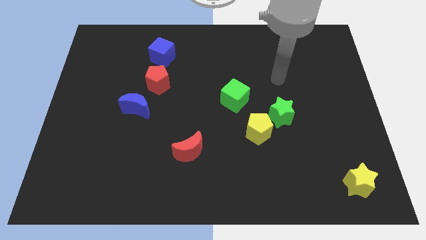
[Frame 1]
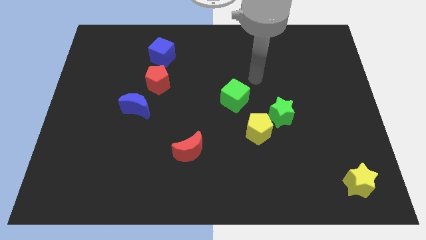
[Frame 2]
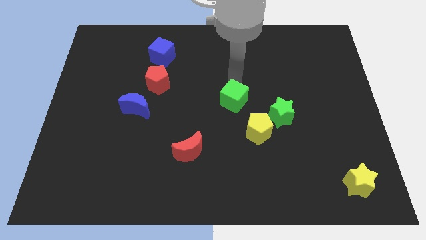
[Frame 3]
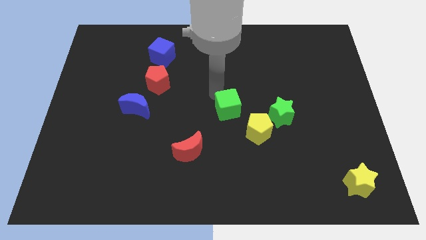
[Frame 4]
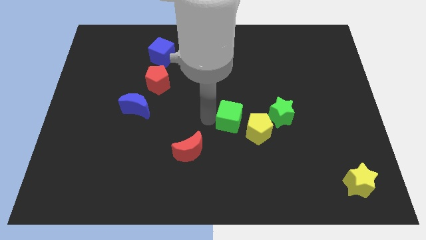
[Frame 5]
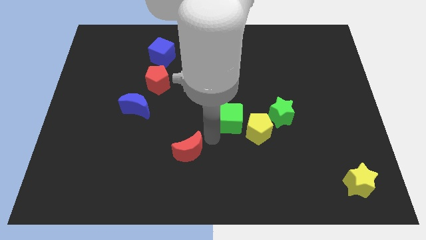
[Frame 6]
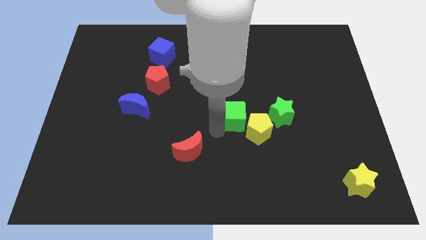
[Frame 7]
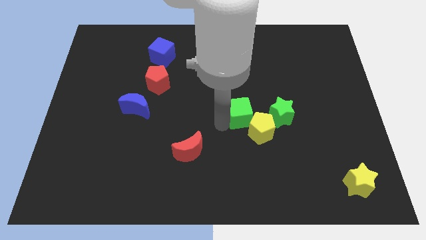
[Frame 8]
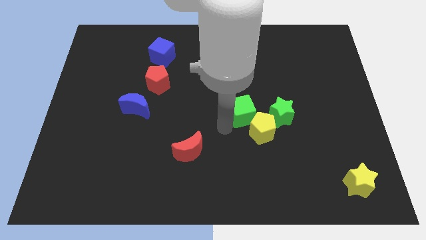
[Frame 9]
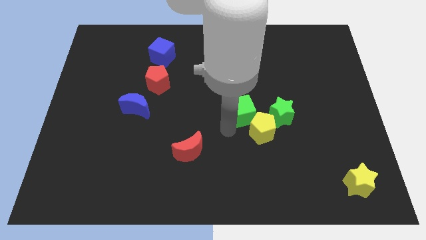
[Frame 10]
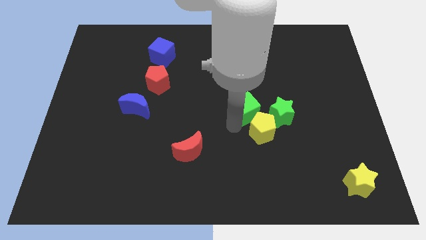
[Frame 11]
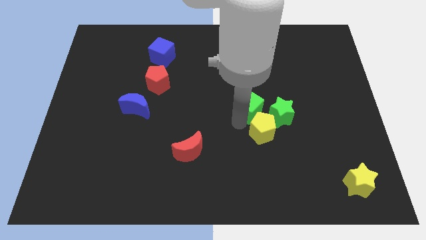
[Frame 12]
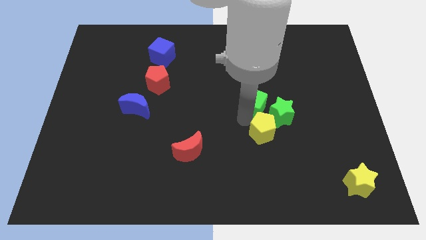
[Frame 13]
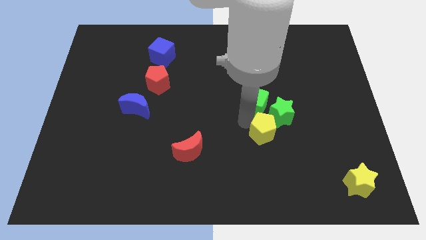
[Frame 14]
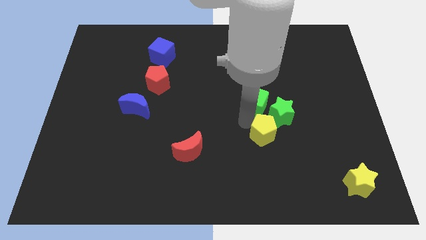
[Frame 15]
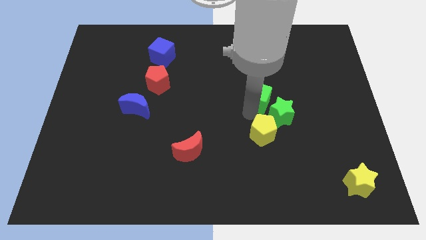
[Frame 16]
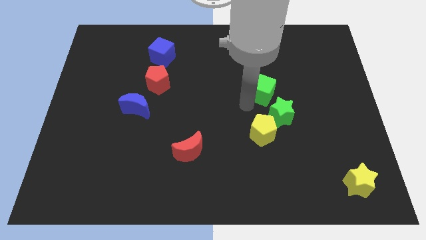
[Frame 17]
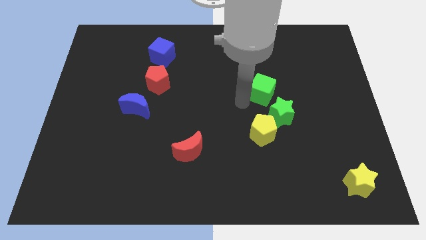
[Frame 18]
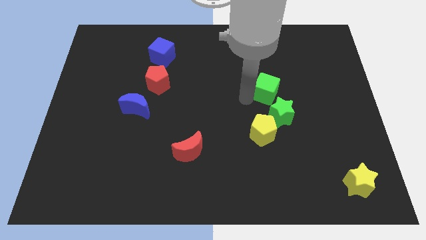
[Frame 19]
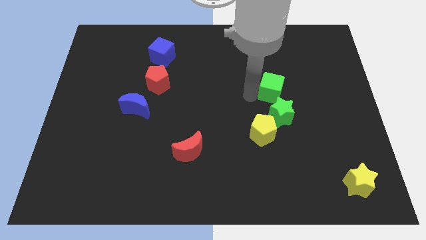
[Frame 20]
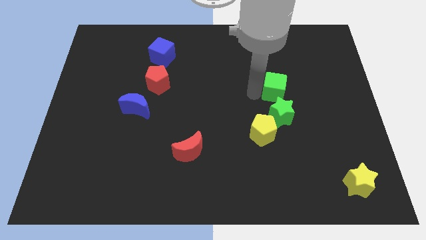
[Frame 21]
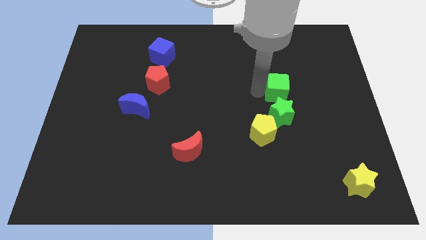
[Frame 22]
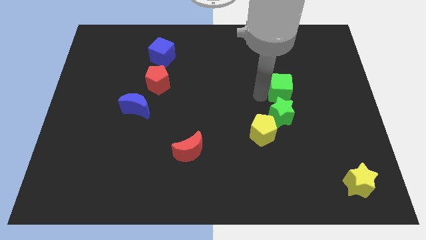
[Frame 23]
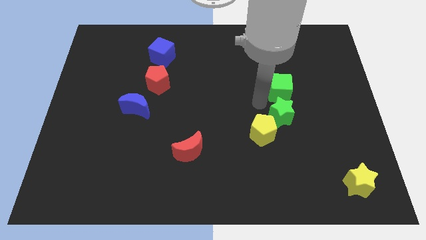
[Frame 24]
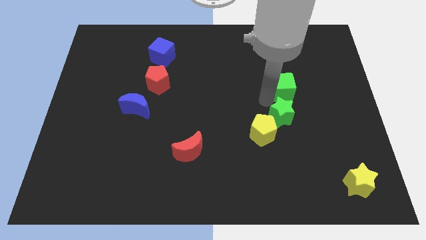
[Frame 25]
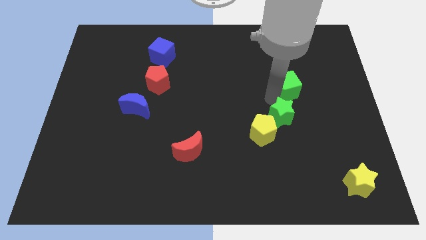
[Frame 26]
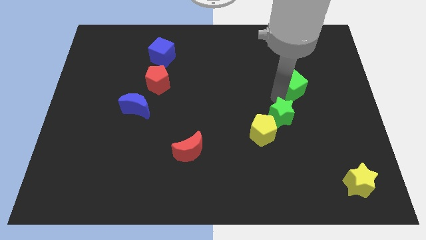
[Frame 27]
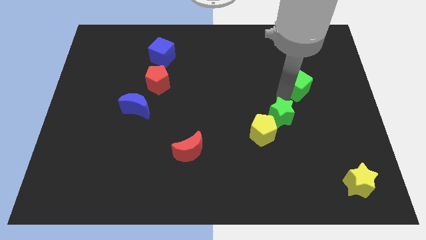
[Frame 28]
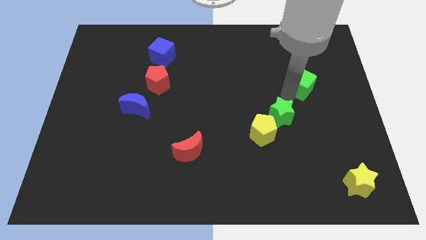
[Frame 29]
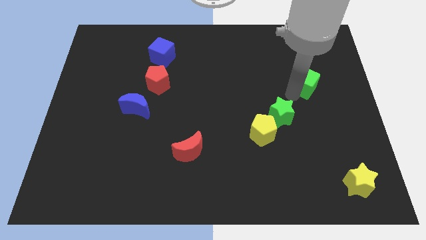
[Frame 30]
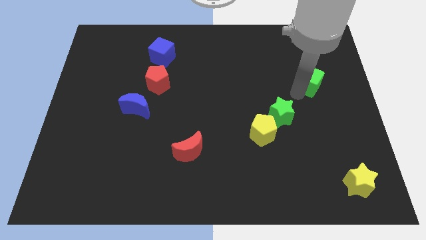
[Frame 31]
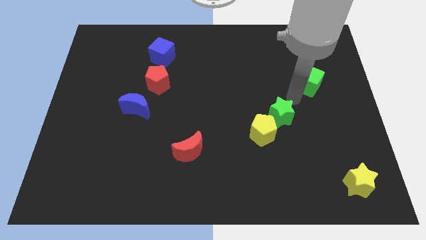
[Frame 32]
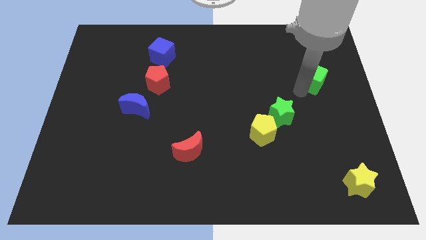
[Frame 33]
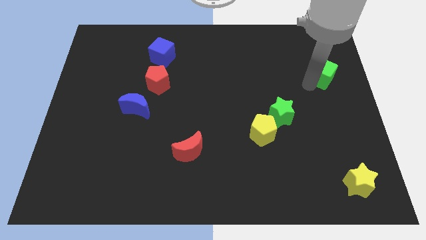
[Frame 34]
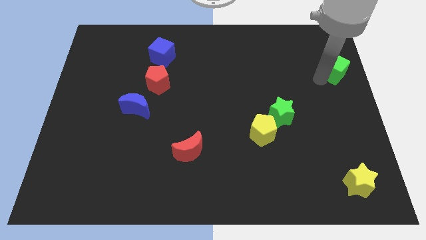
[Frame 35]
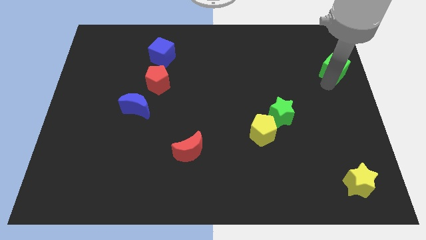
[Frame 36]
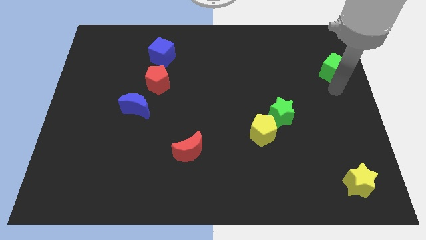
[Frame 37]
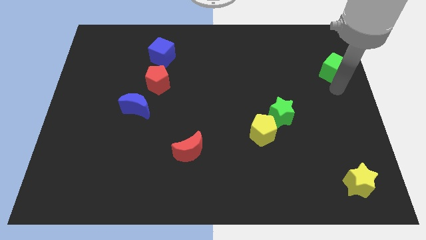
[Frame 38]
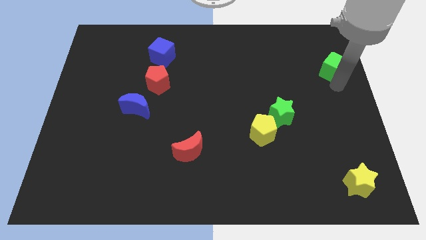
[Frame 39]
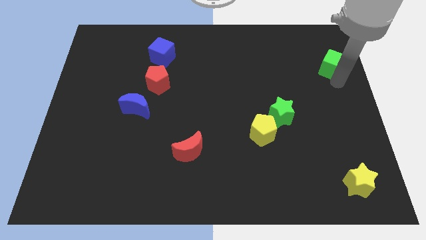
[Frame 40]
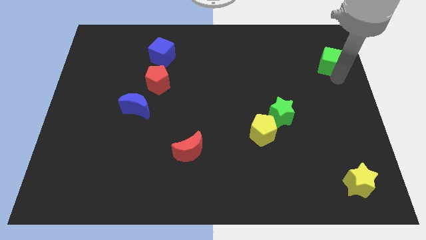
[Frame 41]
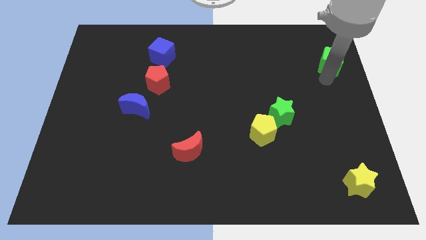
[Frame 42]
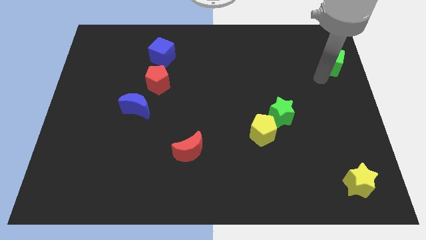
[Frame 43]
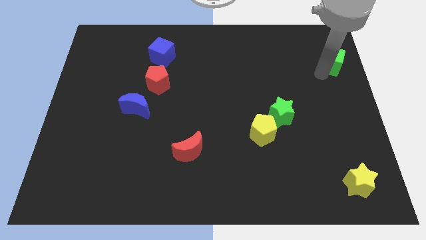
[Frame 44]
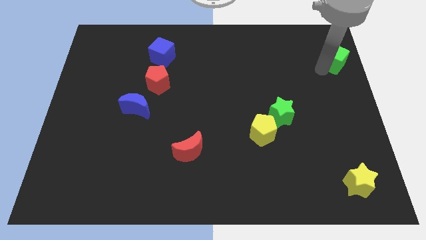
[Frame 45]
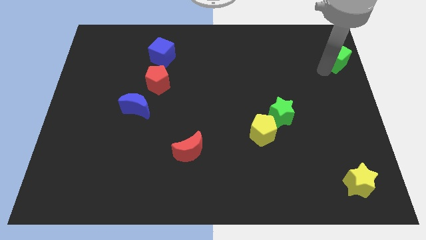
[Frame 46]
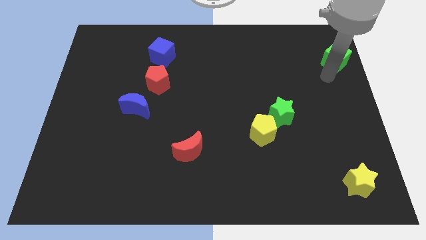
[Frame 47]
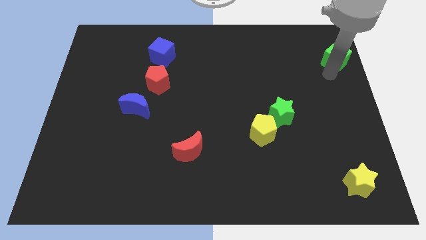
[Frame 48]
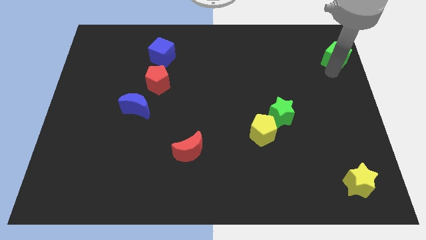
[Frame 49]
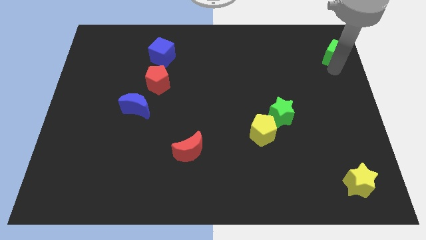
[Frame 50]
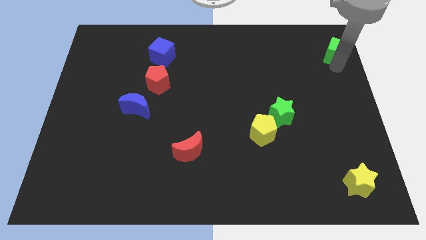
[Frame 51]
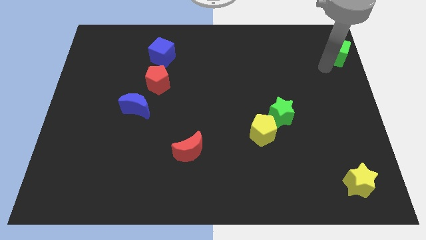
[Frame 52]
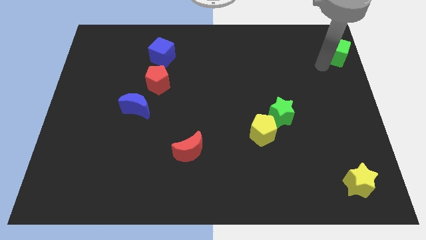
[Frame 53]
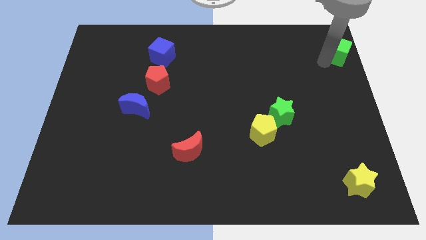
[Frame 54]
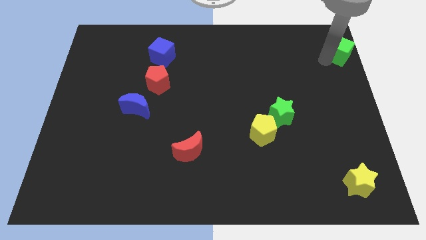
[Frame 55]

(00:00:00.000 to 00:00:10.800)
put the green cube to the top right

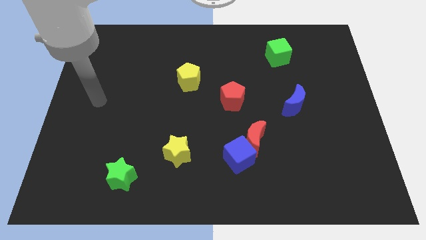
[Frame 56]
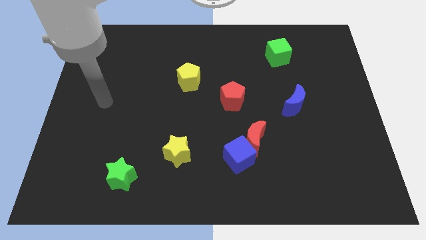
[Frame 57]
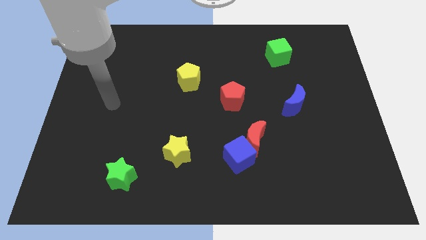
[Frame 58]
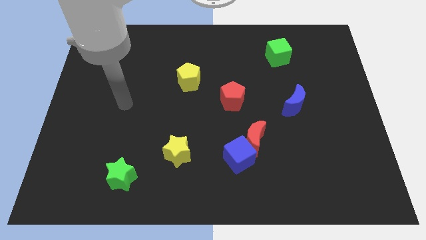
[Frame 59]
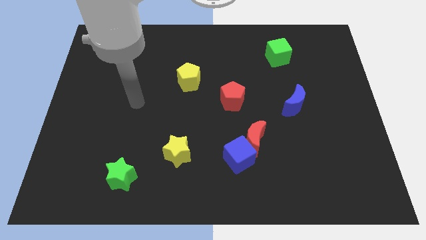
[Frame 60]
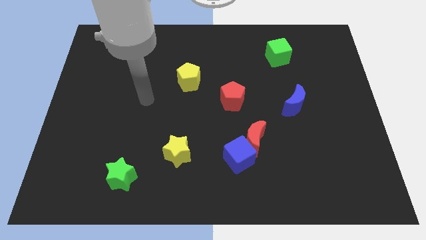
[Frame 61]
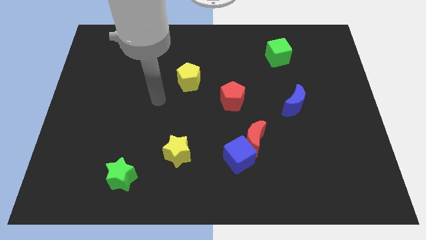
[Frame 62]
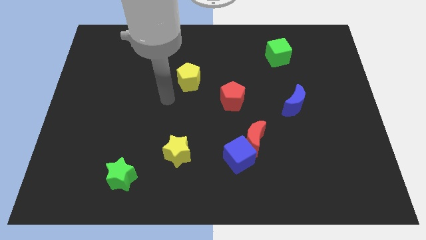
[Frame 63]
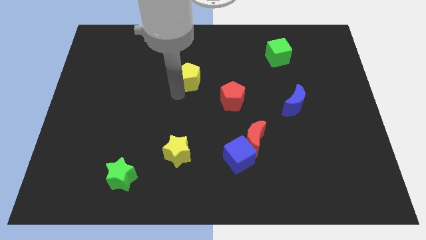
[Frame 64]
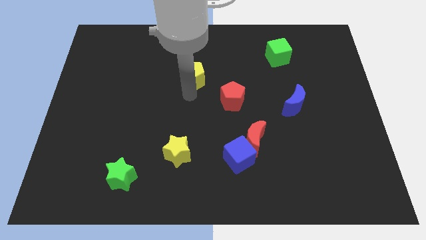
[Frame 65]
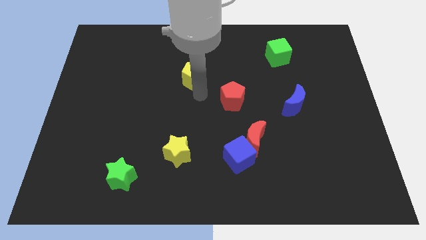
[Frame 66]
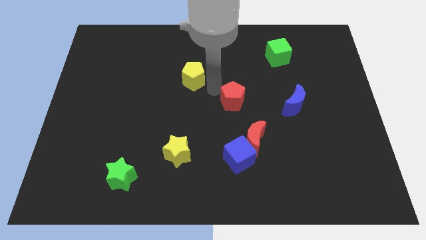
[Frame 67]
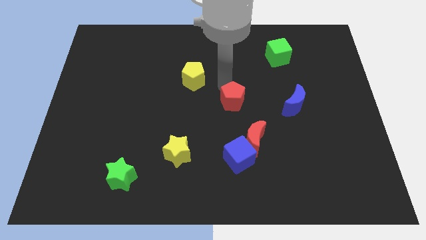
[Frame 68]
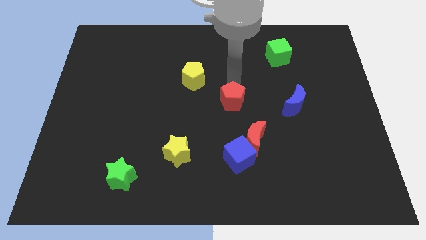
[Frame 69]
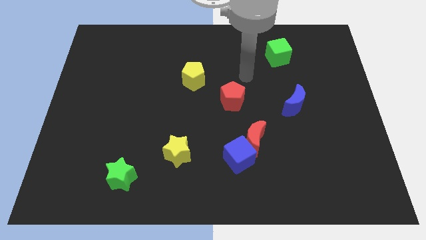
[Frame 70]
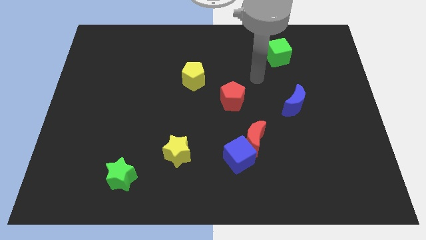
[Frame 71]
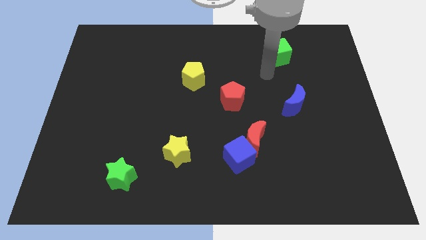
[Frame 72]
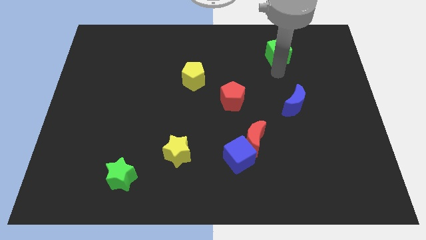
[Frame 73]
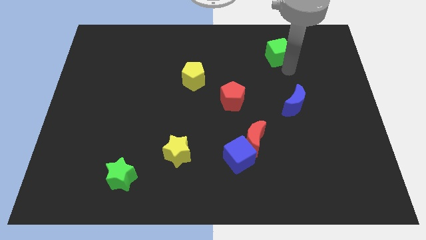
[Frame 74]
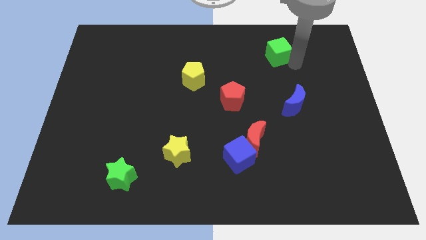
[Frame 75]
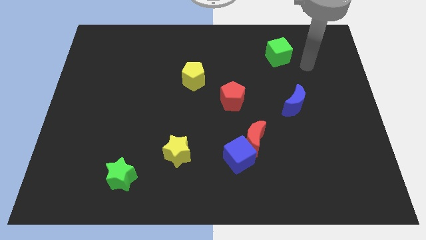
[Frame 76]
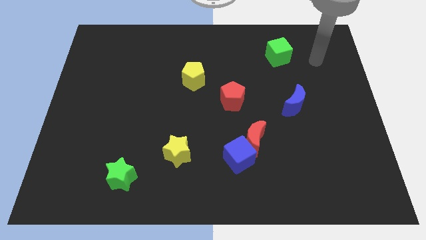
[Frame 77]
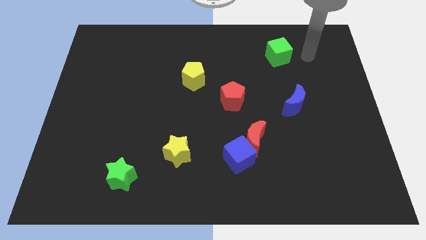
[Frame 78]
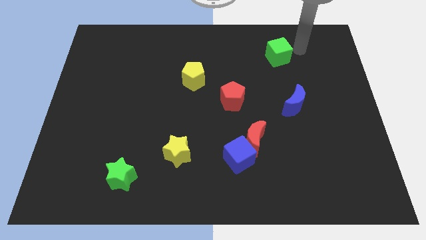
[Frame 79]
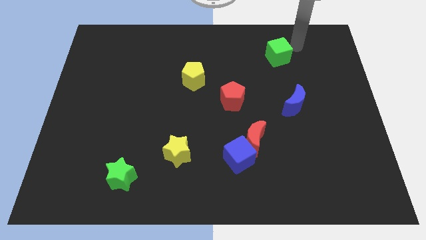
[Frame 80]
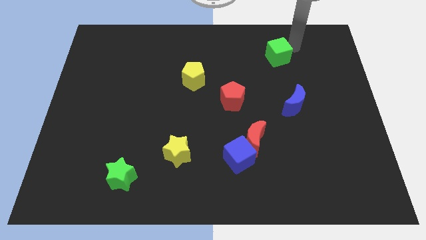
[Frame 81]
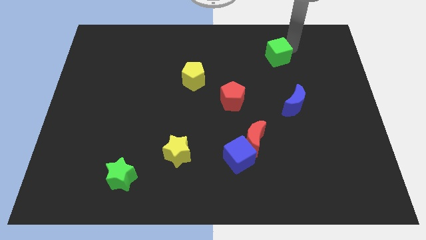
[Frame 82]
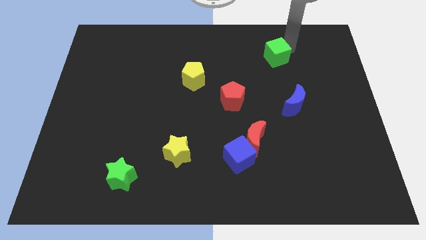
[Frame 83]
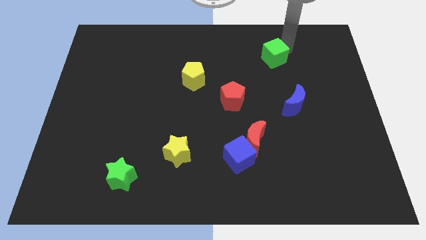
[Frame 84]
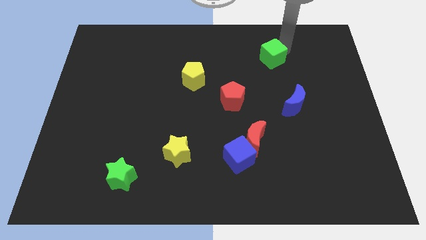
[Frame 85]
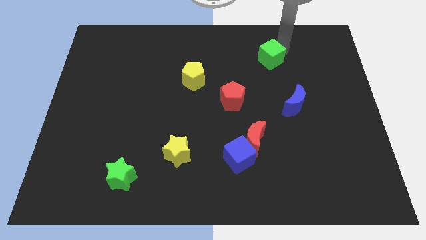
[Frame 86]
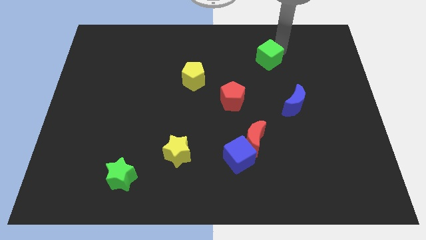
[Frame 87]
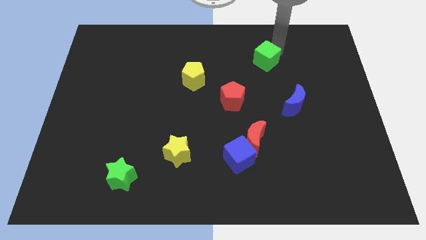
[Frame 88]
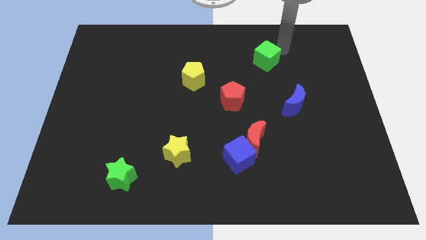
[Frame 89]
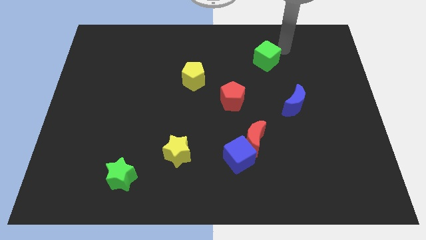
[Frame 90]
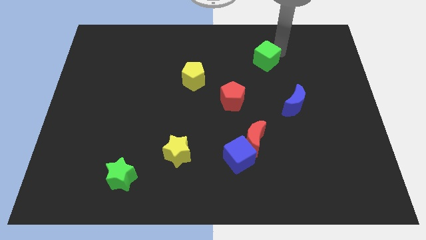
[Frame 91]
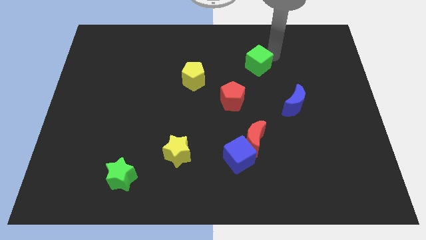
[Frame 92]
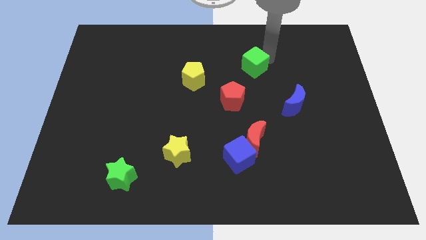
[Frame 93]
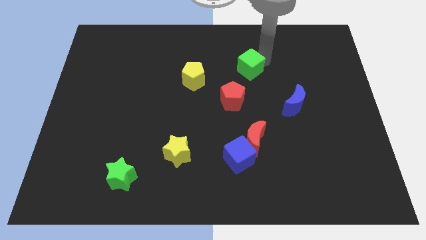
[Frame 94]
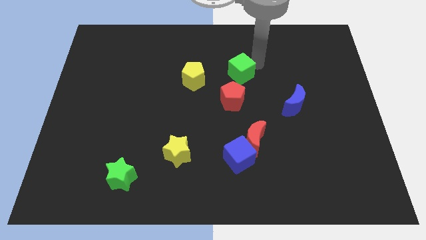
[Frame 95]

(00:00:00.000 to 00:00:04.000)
put the green cube to the middle
